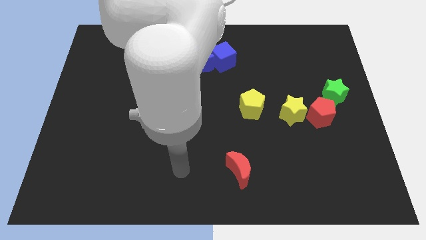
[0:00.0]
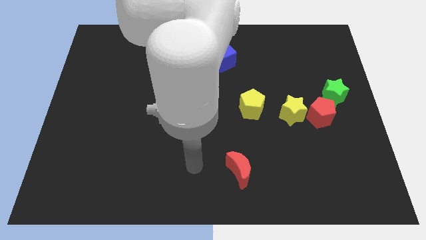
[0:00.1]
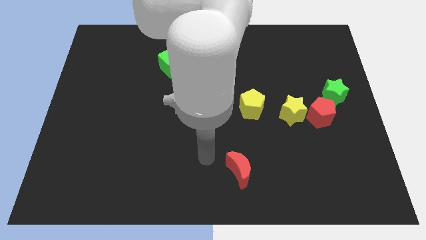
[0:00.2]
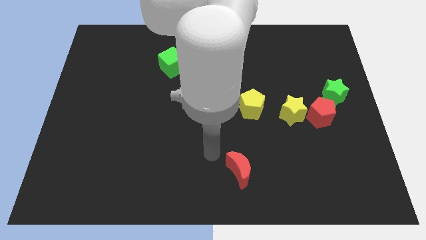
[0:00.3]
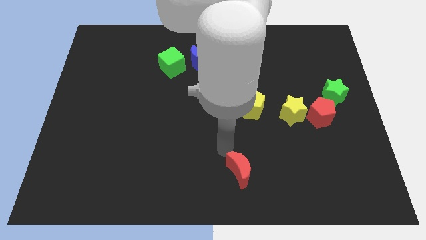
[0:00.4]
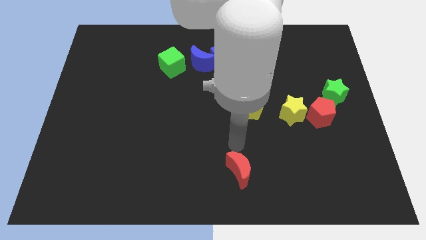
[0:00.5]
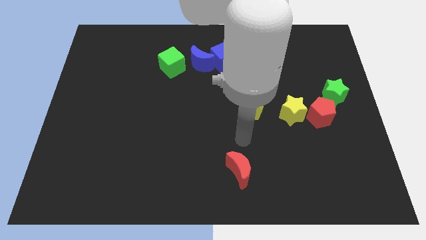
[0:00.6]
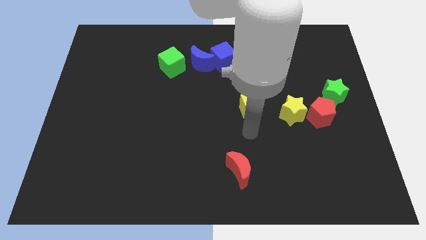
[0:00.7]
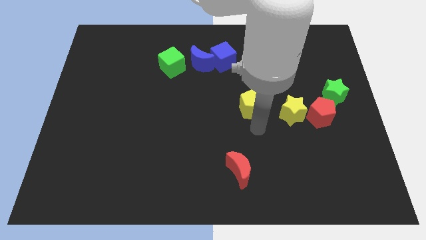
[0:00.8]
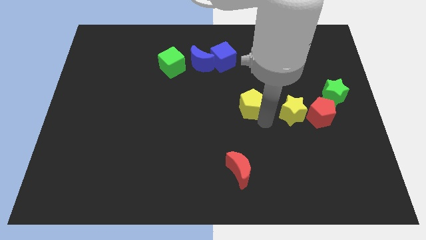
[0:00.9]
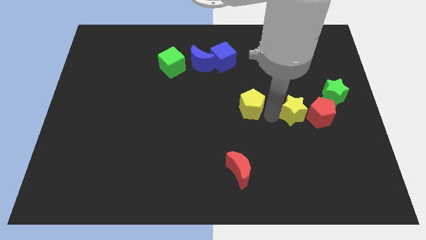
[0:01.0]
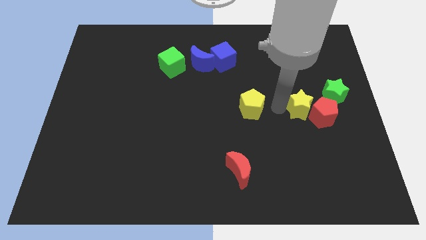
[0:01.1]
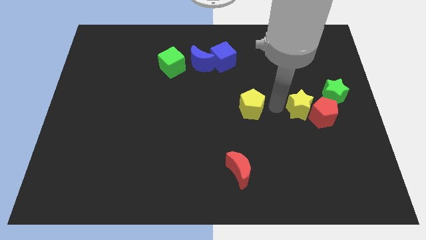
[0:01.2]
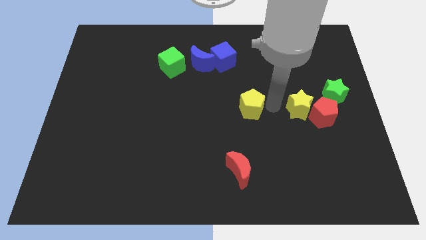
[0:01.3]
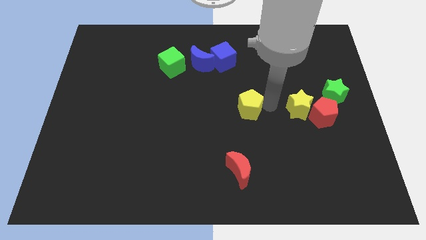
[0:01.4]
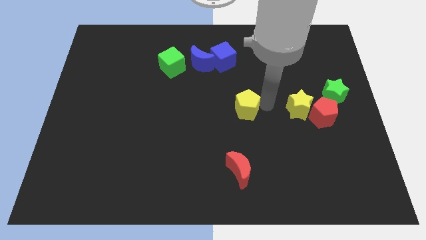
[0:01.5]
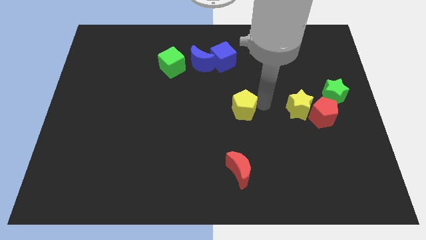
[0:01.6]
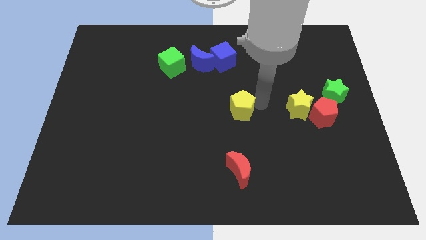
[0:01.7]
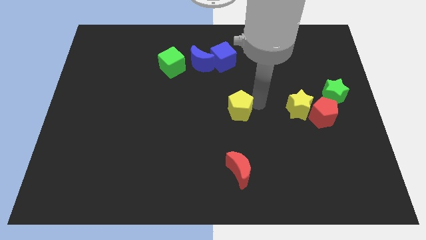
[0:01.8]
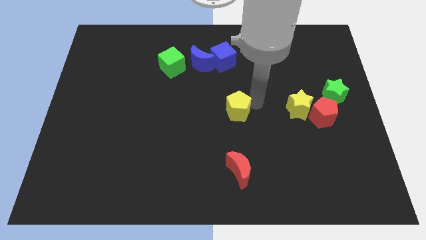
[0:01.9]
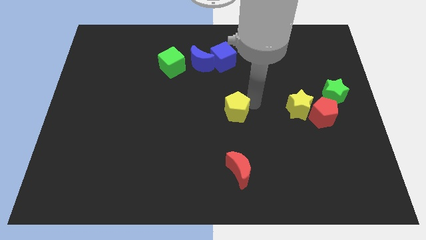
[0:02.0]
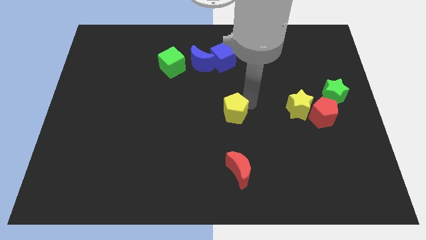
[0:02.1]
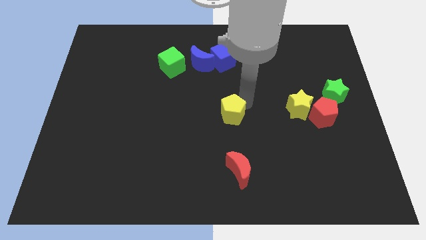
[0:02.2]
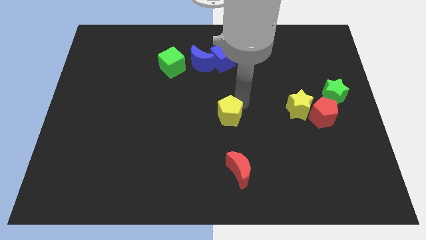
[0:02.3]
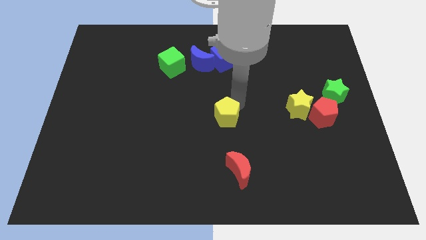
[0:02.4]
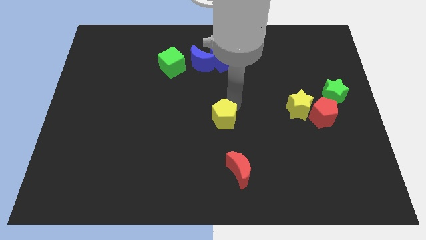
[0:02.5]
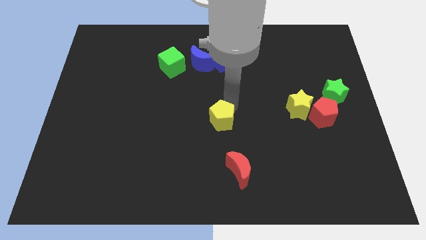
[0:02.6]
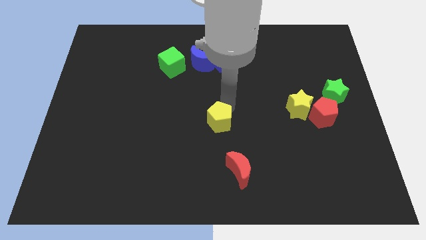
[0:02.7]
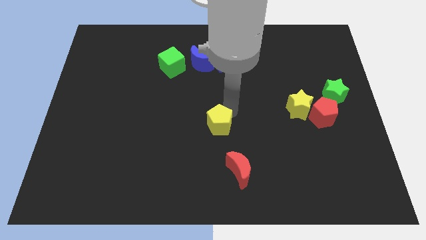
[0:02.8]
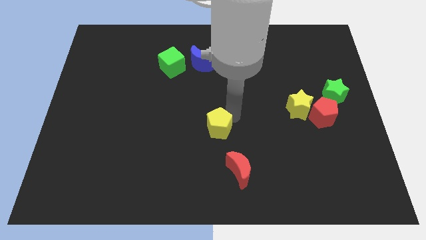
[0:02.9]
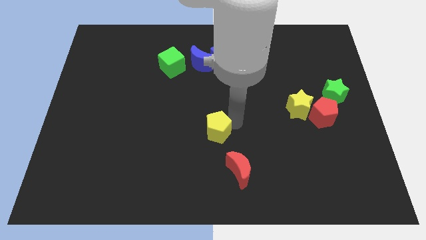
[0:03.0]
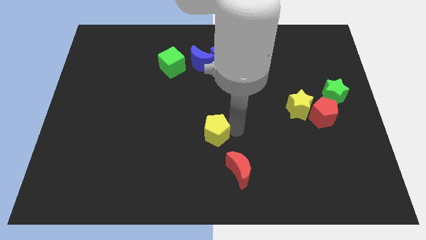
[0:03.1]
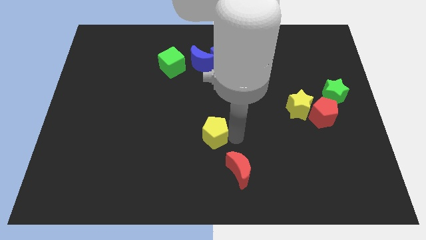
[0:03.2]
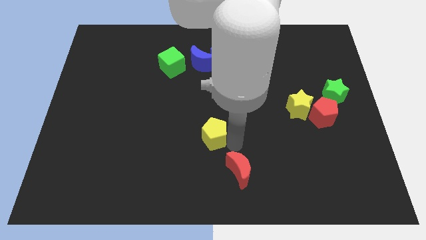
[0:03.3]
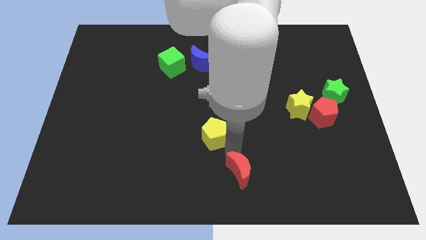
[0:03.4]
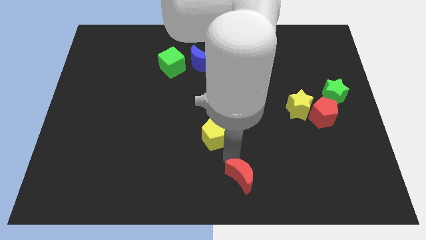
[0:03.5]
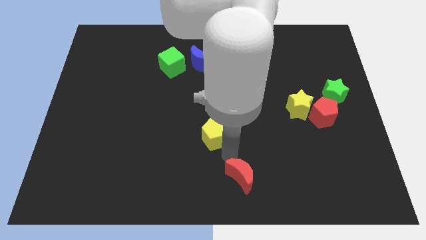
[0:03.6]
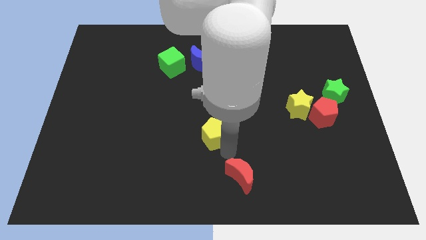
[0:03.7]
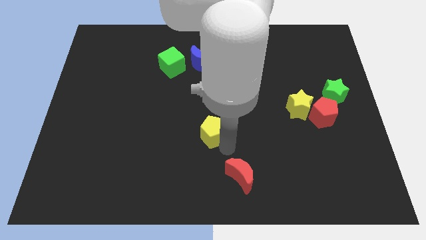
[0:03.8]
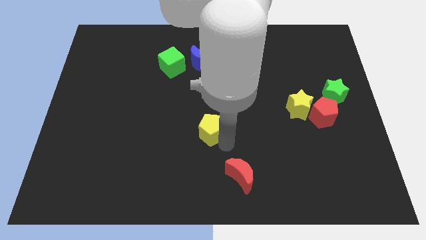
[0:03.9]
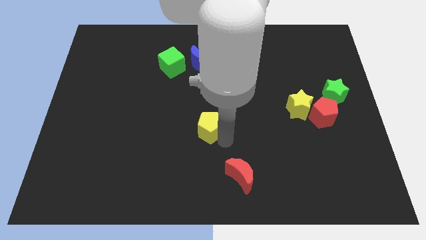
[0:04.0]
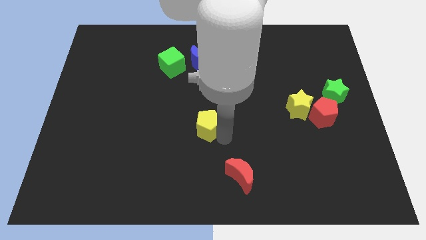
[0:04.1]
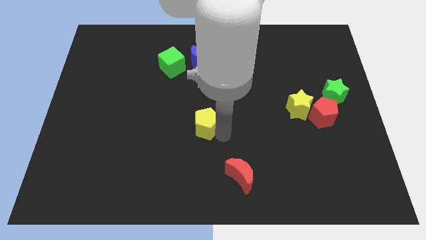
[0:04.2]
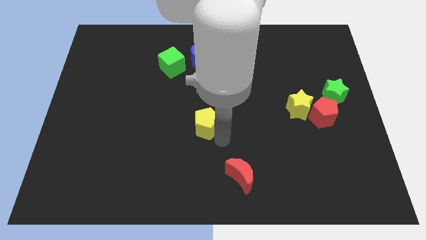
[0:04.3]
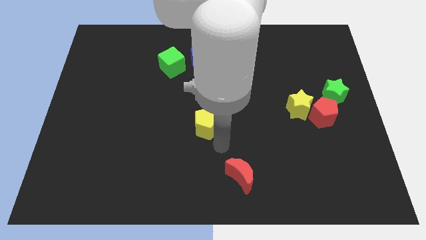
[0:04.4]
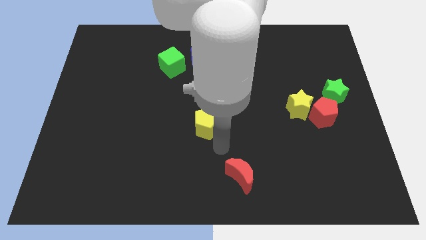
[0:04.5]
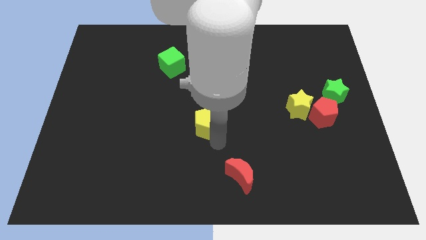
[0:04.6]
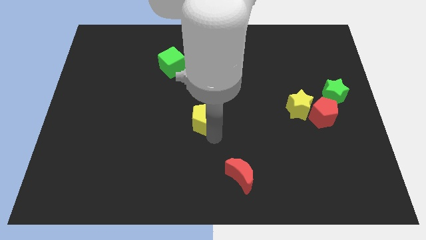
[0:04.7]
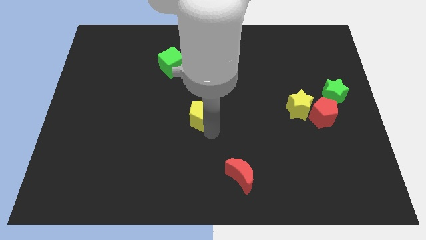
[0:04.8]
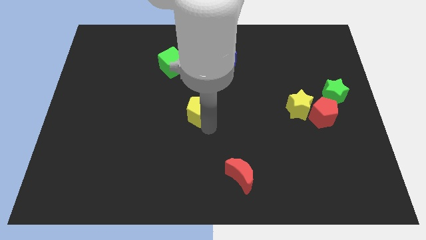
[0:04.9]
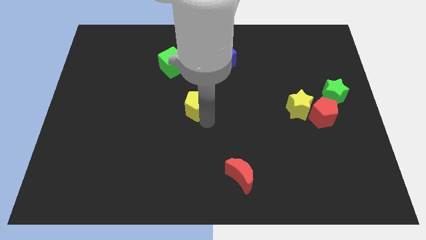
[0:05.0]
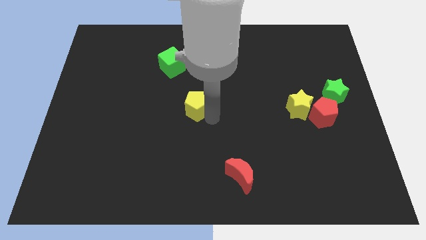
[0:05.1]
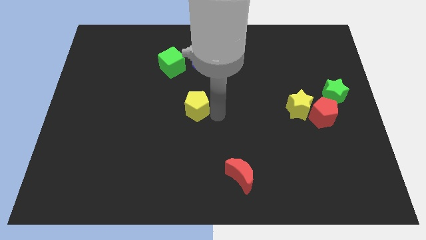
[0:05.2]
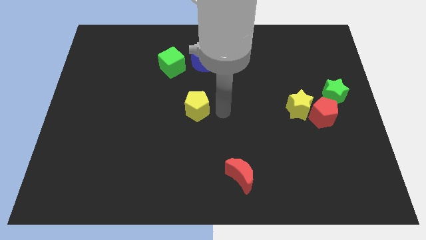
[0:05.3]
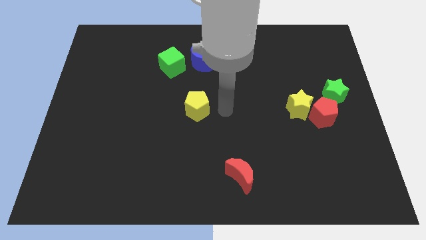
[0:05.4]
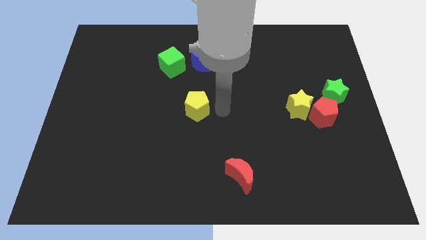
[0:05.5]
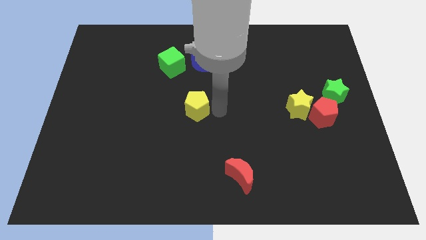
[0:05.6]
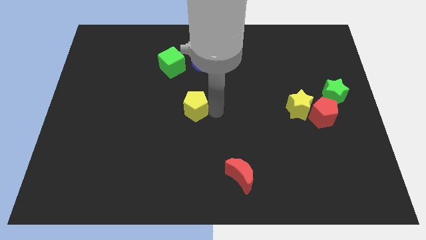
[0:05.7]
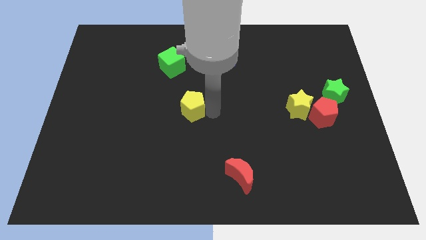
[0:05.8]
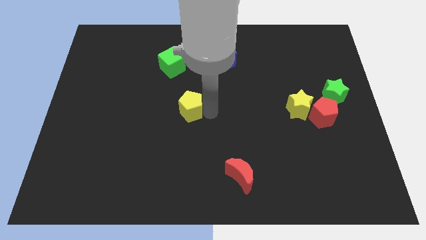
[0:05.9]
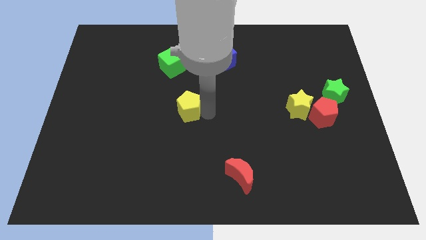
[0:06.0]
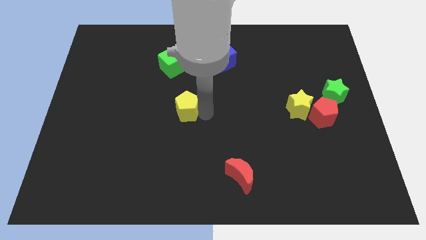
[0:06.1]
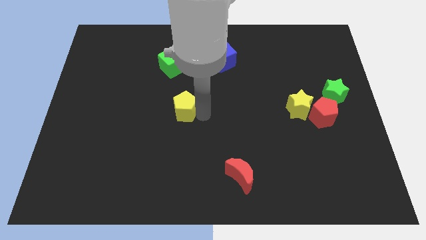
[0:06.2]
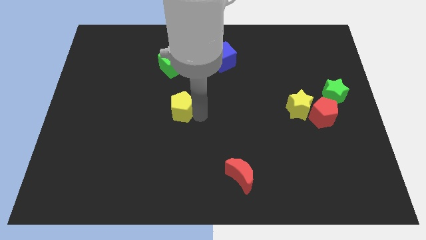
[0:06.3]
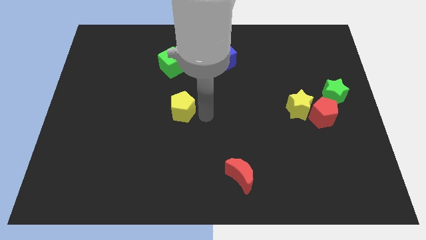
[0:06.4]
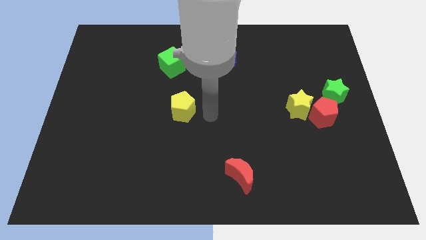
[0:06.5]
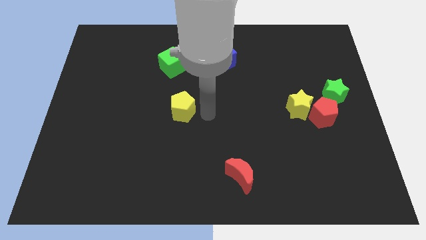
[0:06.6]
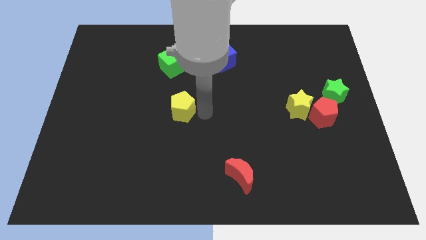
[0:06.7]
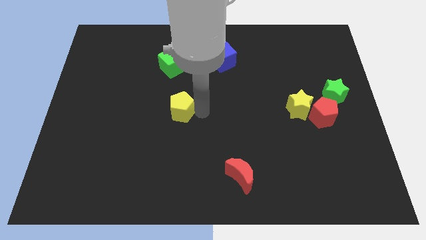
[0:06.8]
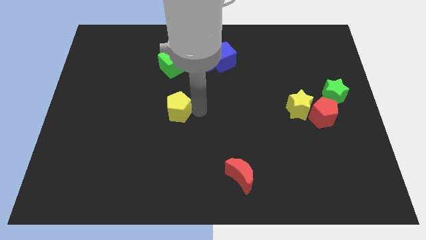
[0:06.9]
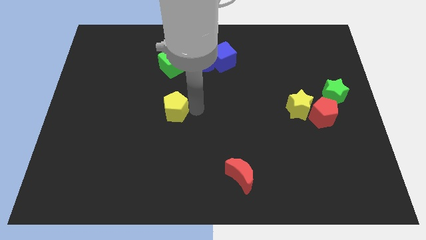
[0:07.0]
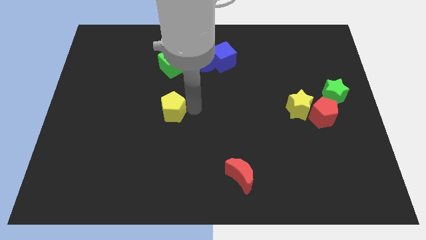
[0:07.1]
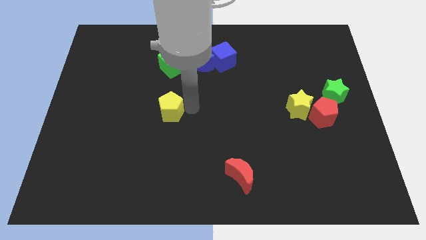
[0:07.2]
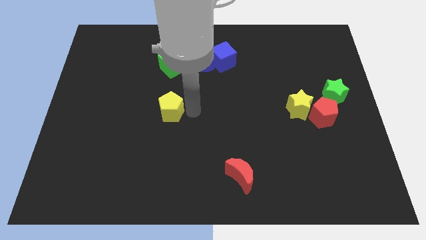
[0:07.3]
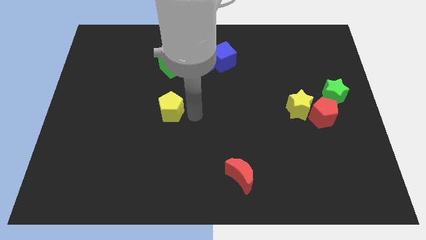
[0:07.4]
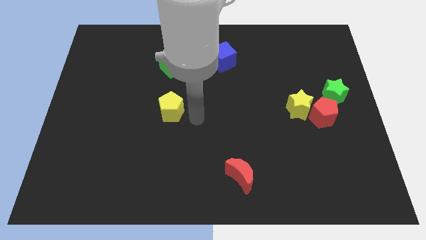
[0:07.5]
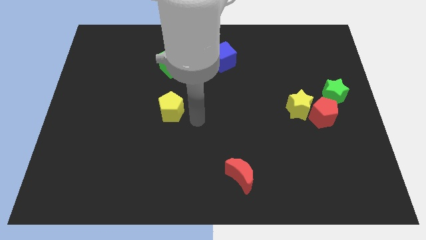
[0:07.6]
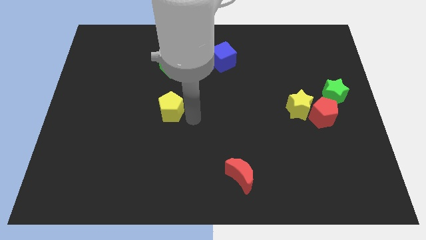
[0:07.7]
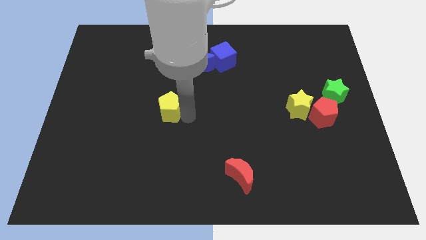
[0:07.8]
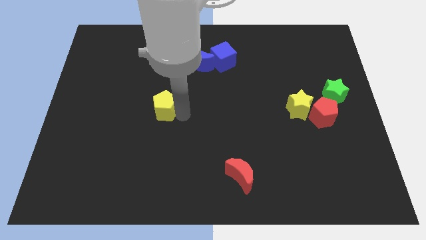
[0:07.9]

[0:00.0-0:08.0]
move the yellow pentagon to the left

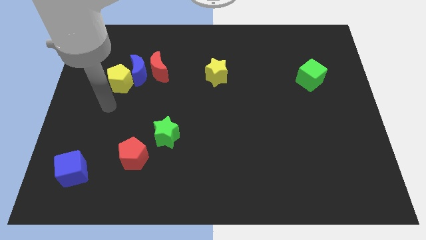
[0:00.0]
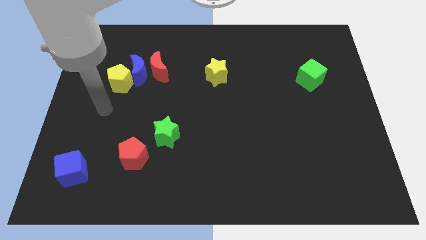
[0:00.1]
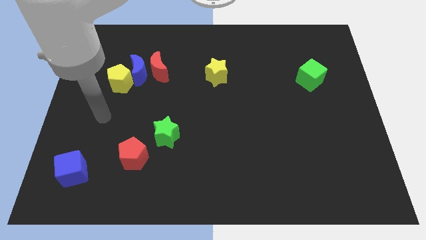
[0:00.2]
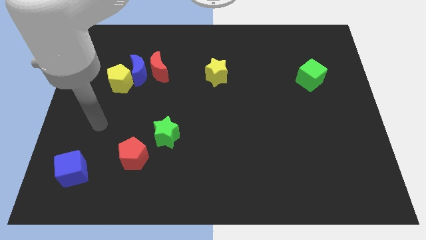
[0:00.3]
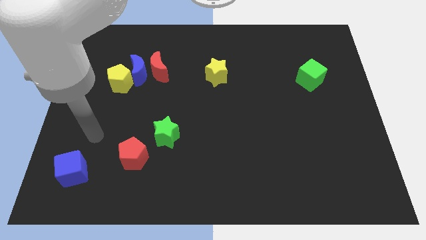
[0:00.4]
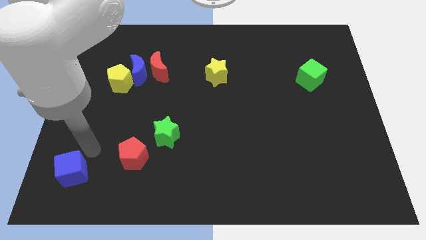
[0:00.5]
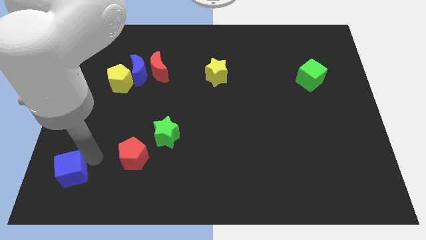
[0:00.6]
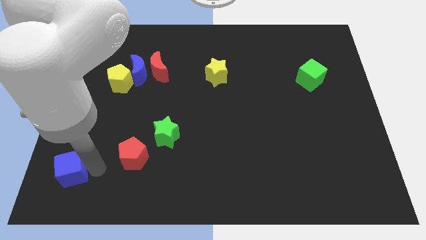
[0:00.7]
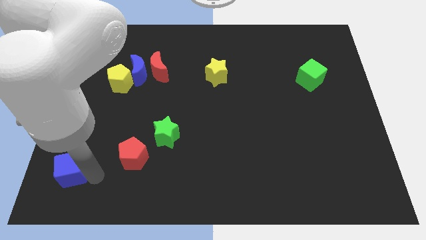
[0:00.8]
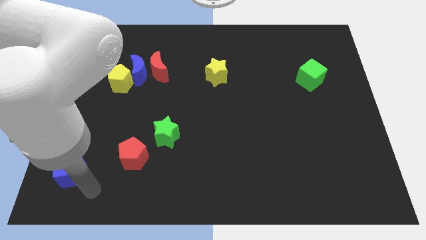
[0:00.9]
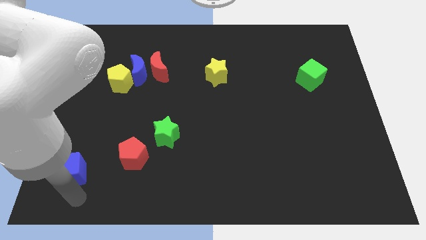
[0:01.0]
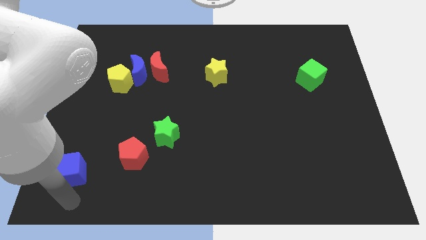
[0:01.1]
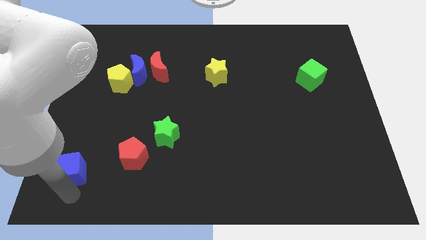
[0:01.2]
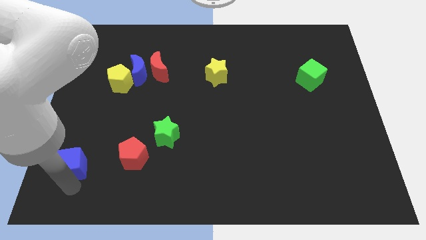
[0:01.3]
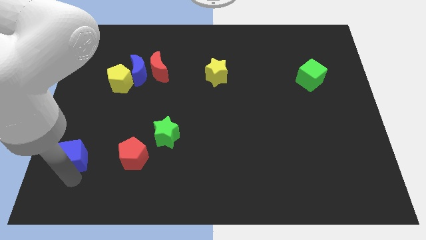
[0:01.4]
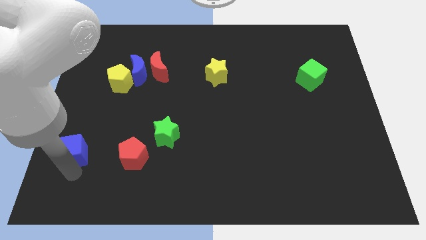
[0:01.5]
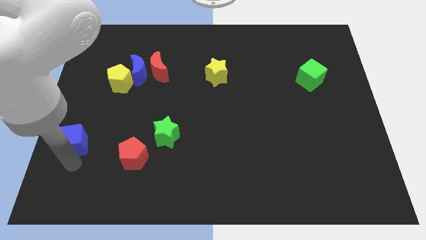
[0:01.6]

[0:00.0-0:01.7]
slide the blue cube a bit upwards
